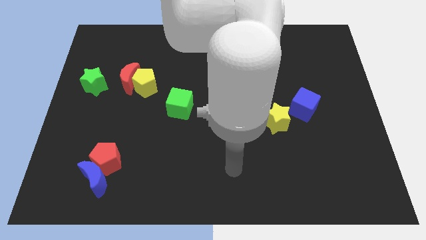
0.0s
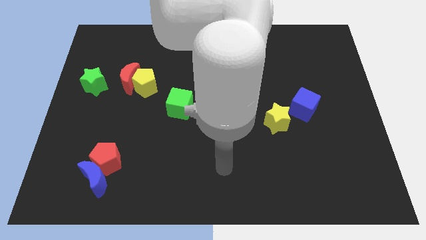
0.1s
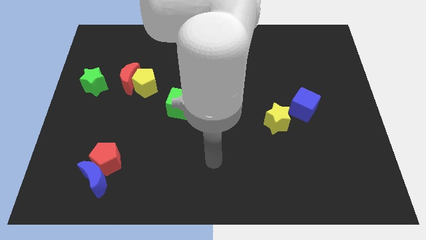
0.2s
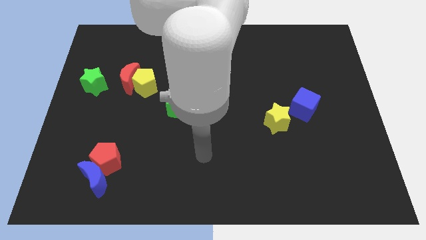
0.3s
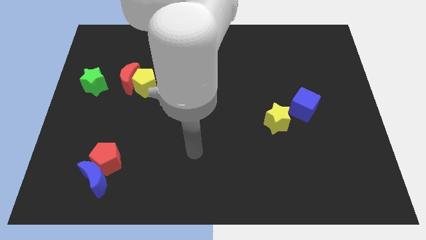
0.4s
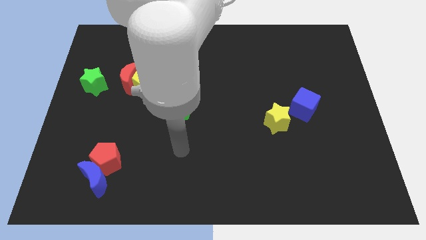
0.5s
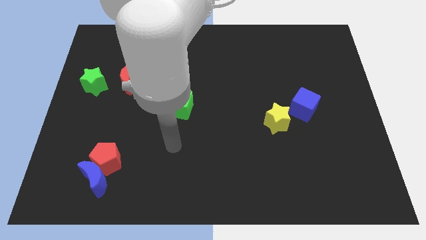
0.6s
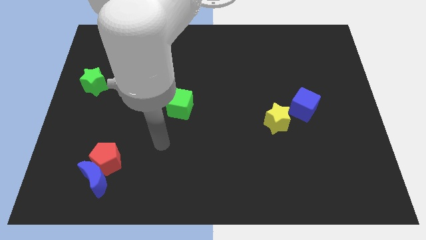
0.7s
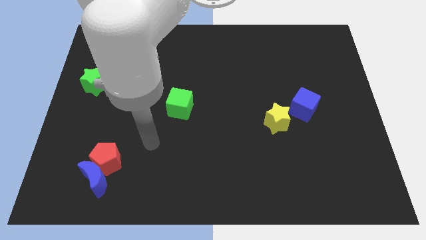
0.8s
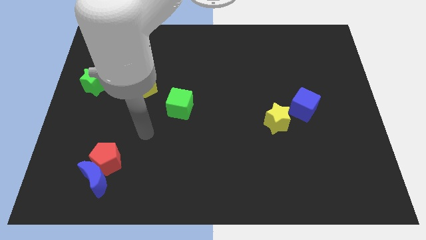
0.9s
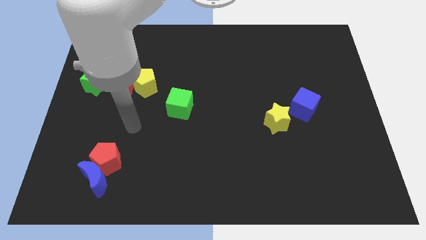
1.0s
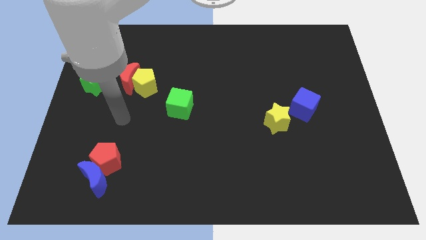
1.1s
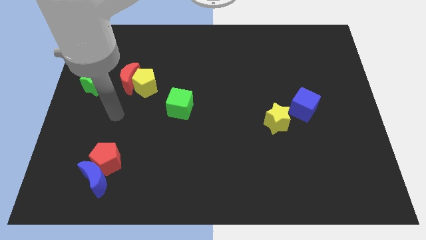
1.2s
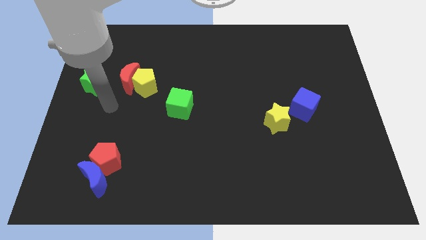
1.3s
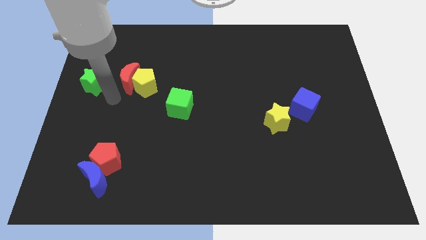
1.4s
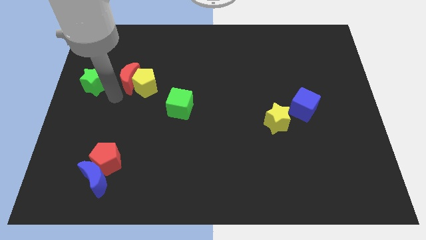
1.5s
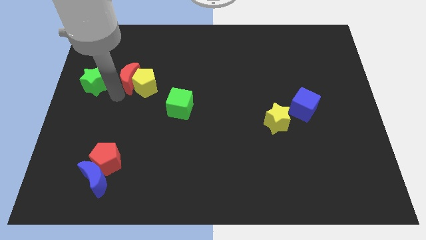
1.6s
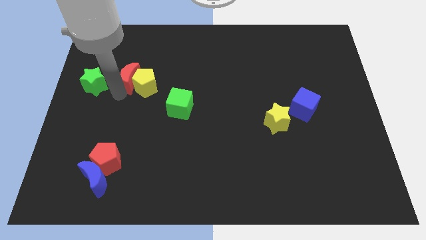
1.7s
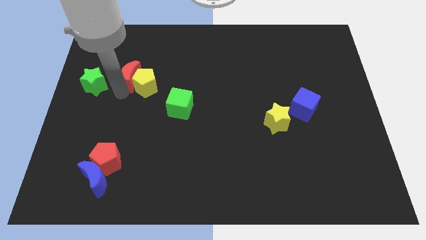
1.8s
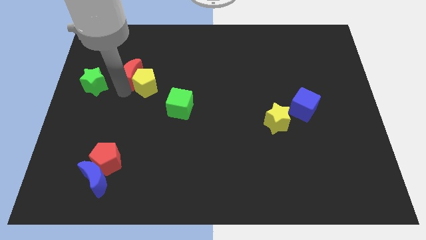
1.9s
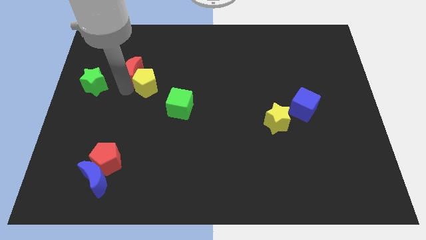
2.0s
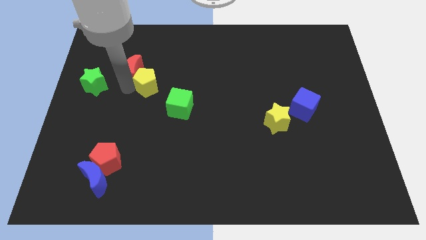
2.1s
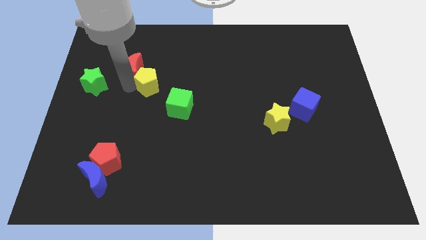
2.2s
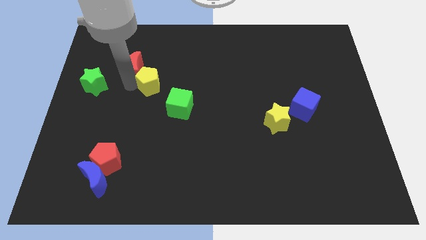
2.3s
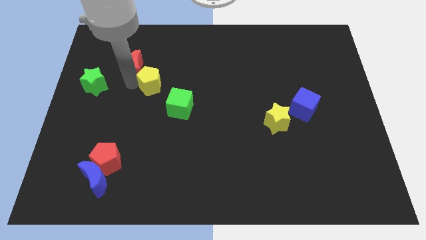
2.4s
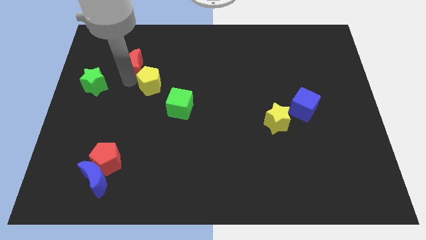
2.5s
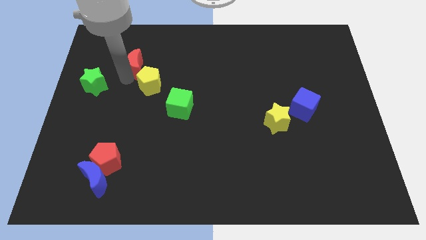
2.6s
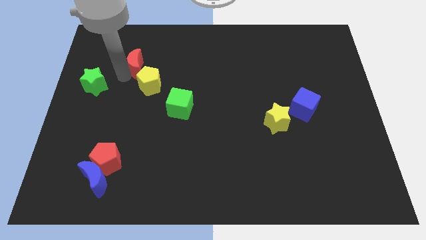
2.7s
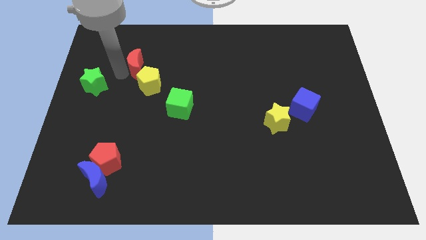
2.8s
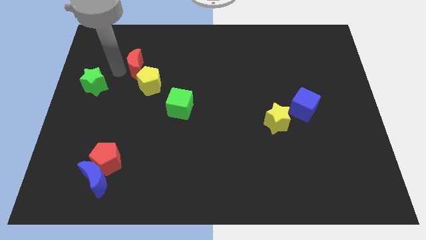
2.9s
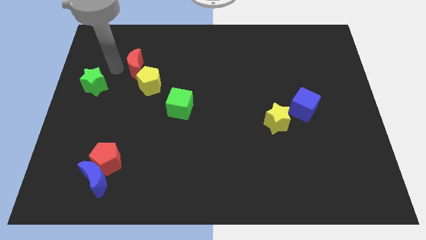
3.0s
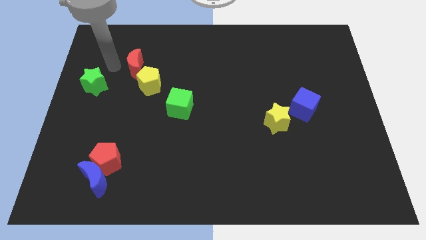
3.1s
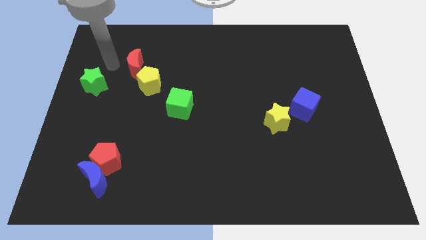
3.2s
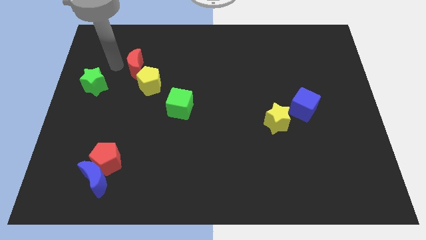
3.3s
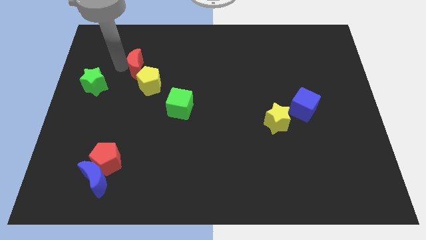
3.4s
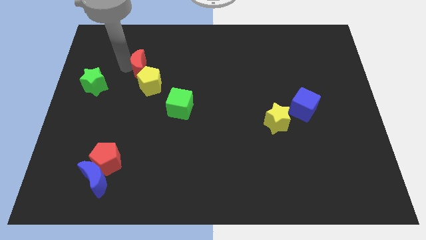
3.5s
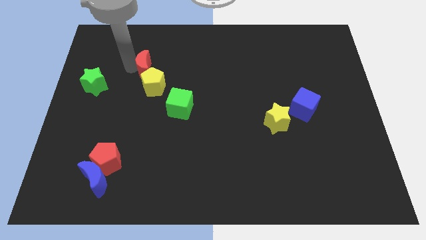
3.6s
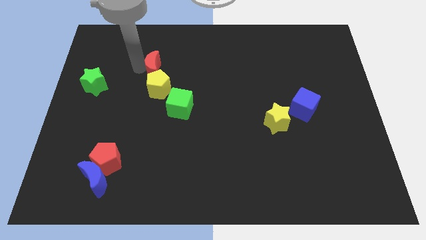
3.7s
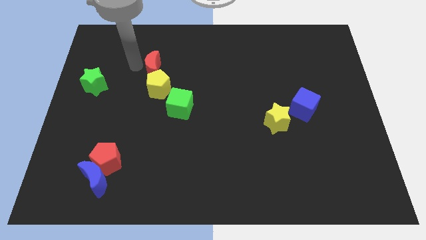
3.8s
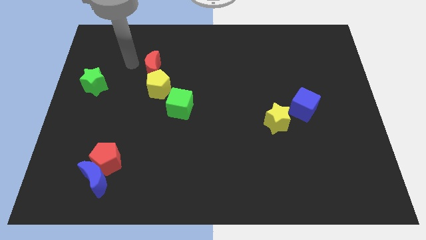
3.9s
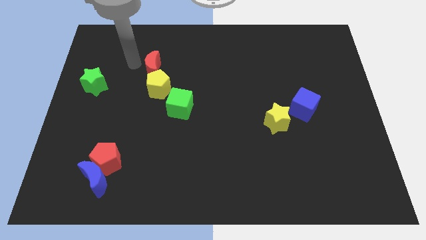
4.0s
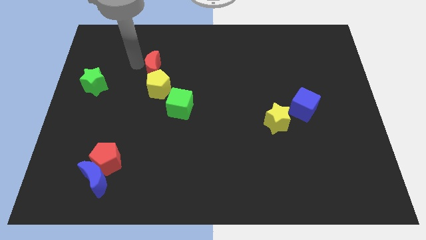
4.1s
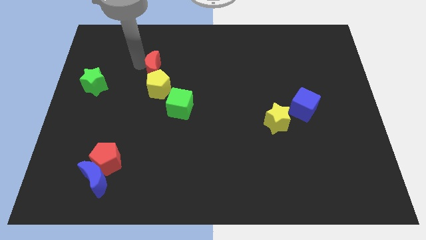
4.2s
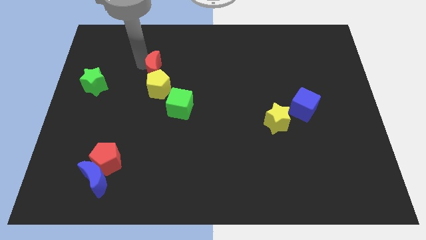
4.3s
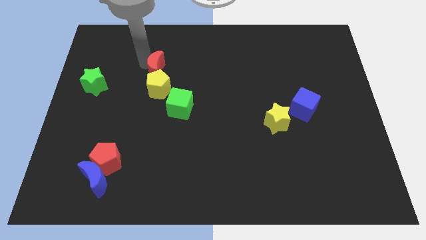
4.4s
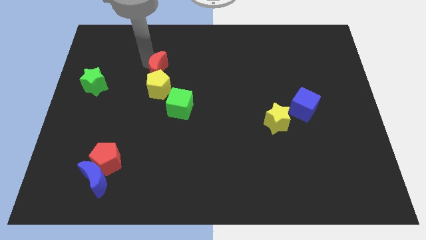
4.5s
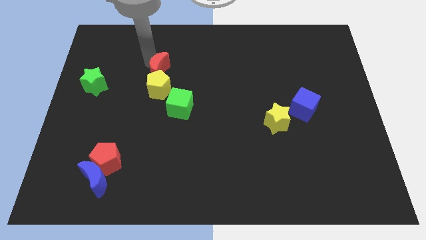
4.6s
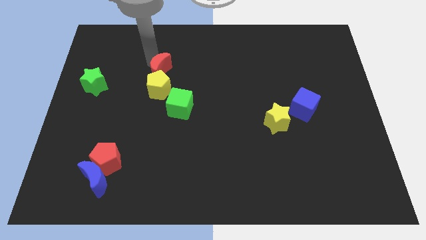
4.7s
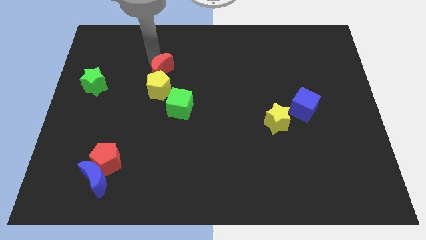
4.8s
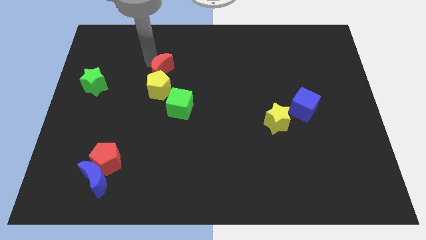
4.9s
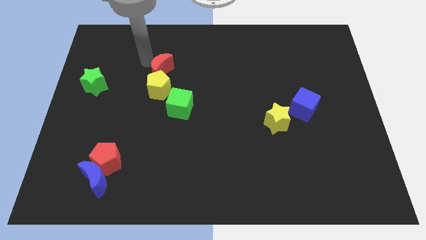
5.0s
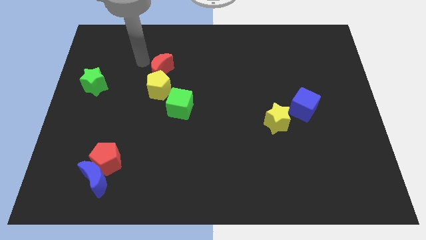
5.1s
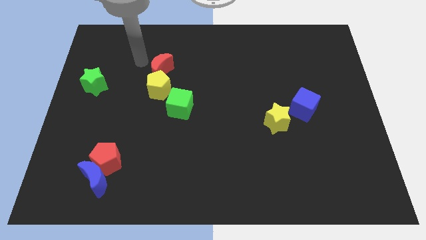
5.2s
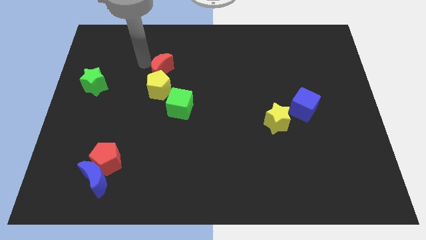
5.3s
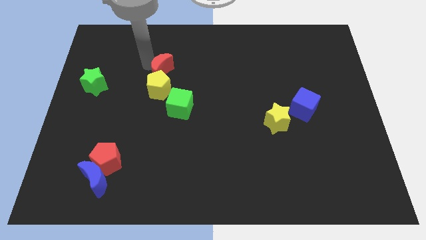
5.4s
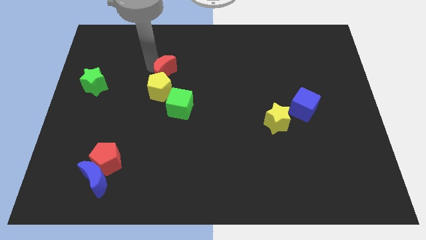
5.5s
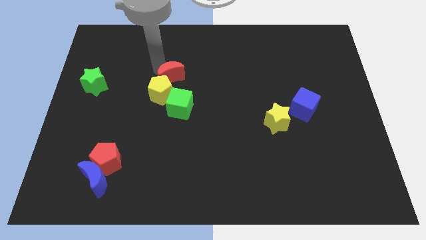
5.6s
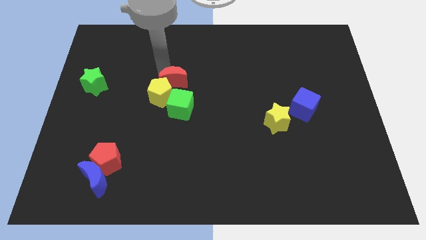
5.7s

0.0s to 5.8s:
move the red moon to the center of the board

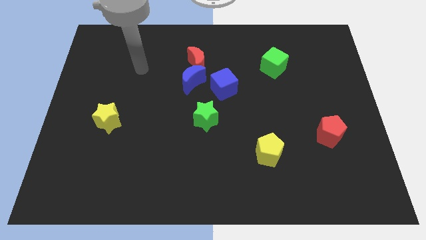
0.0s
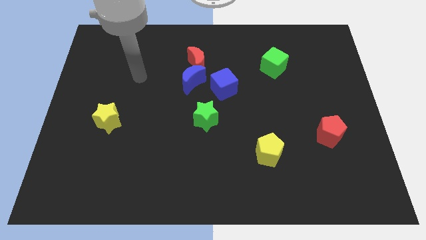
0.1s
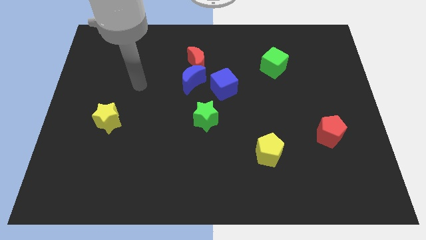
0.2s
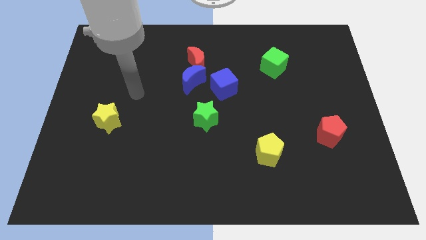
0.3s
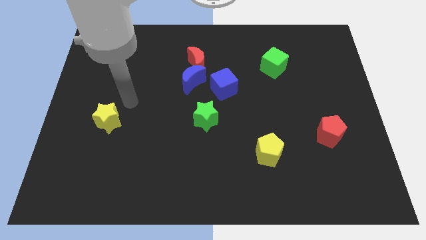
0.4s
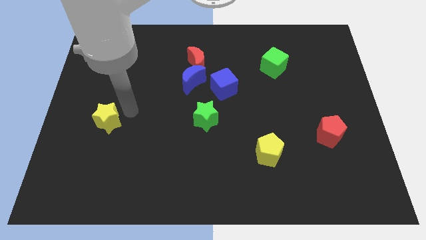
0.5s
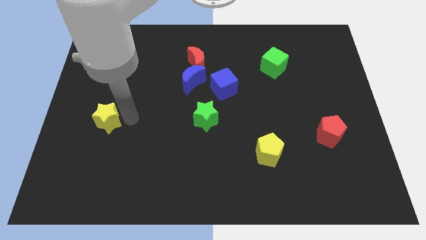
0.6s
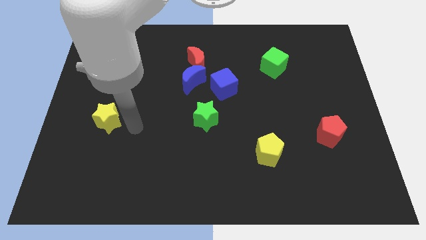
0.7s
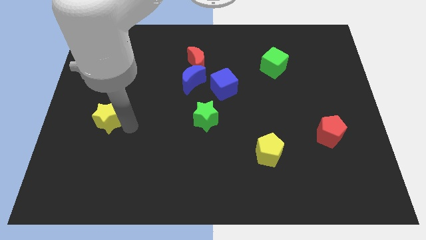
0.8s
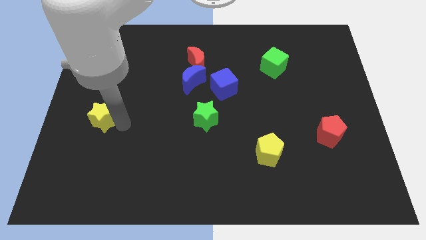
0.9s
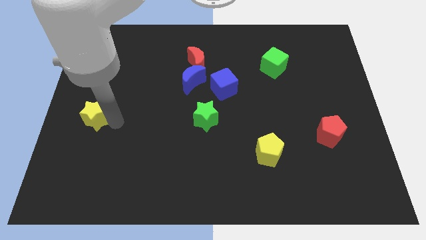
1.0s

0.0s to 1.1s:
move the yellow star to the left side
